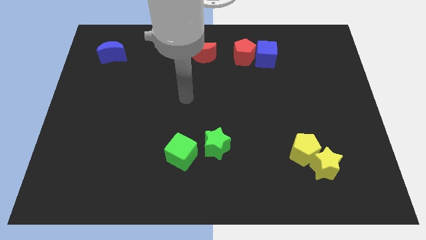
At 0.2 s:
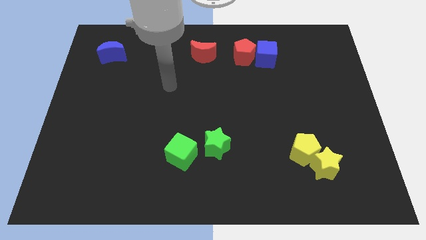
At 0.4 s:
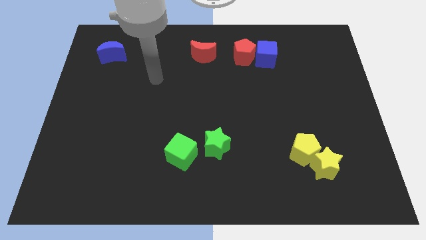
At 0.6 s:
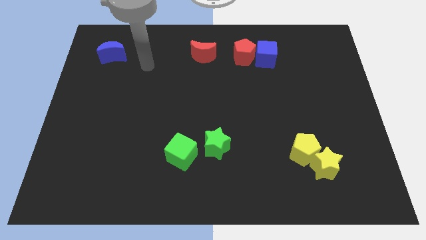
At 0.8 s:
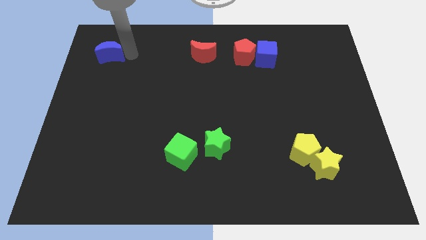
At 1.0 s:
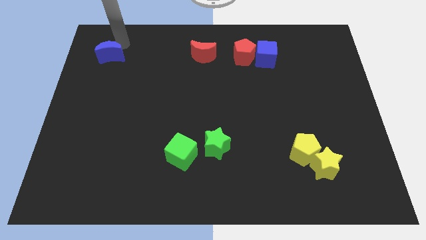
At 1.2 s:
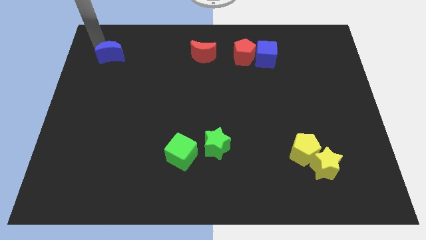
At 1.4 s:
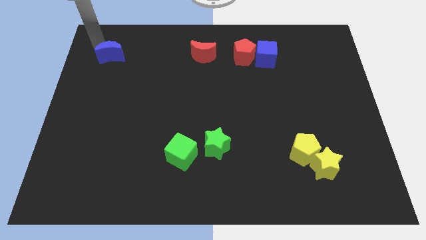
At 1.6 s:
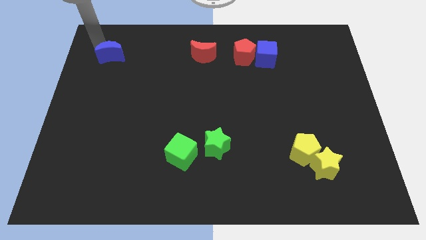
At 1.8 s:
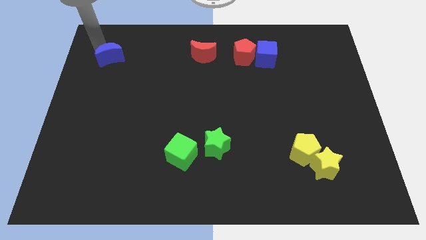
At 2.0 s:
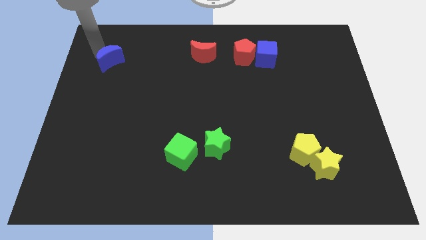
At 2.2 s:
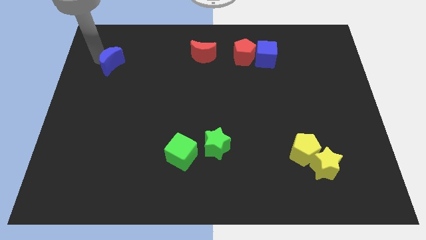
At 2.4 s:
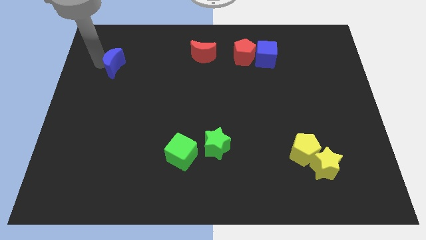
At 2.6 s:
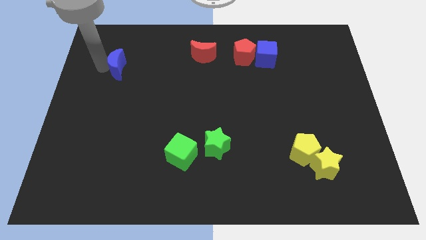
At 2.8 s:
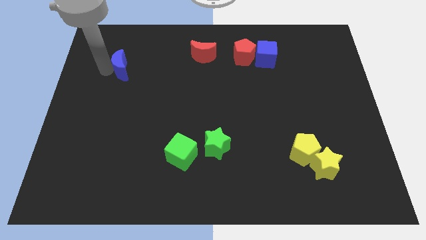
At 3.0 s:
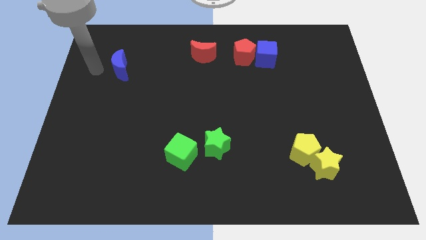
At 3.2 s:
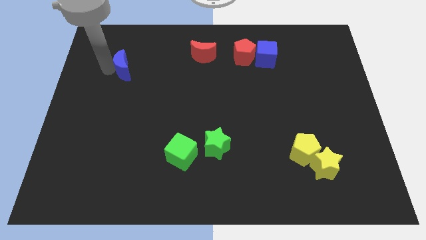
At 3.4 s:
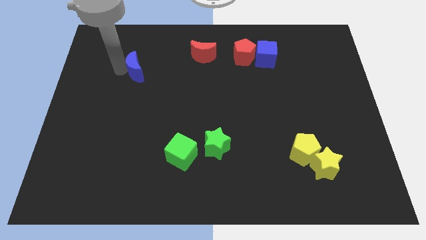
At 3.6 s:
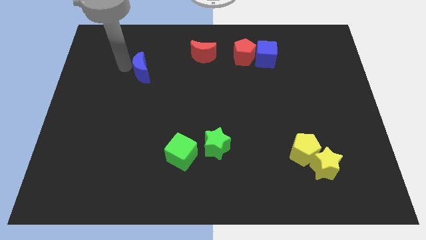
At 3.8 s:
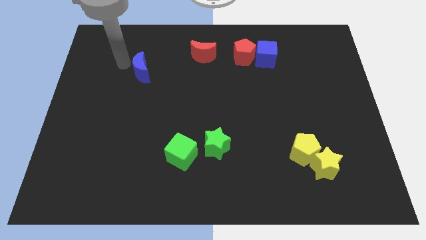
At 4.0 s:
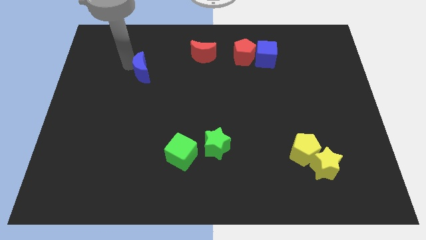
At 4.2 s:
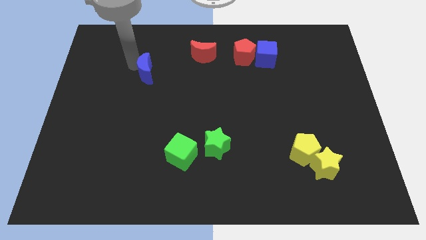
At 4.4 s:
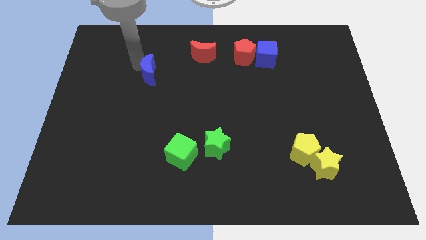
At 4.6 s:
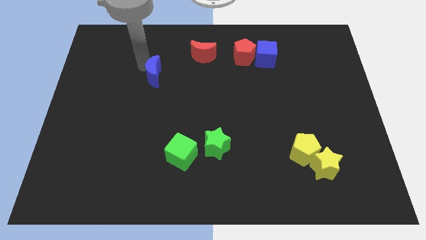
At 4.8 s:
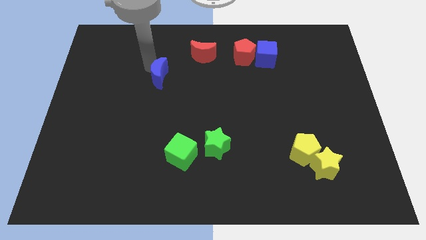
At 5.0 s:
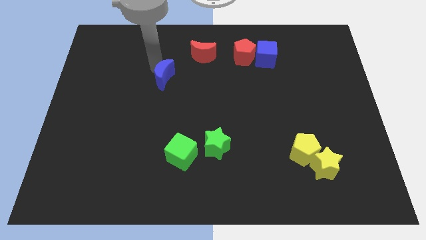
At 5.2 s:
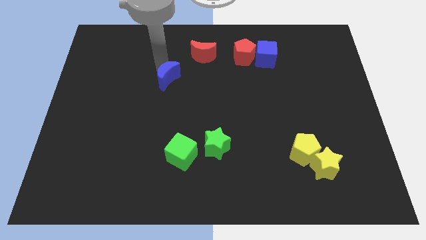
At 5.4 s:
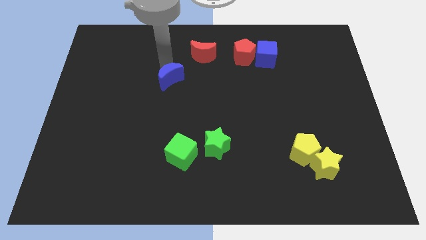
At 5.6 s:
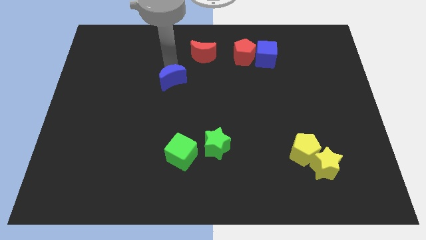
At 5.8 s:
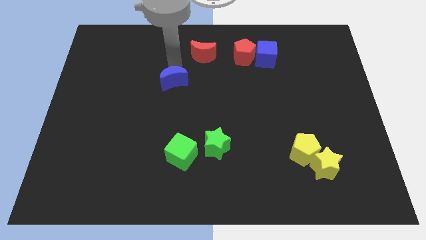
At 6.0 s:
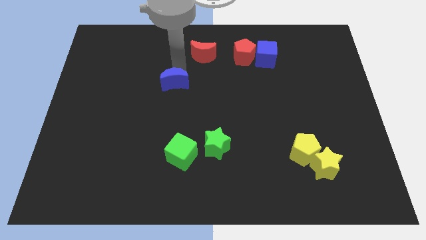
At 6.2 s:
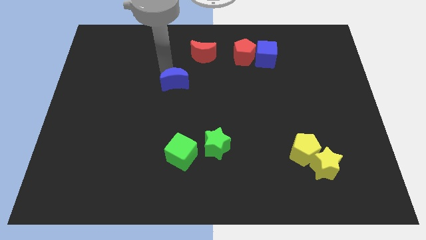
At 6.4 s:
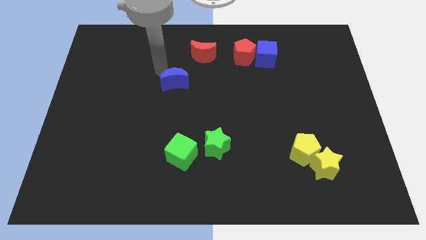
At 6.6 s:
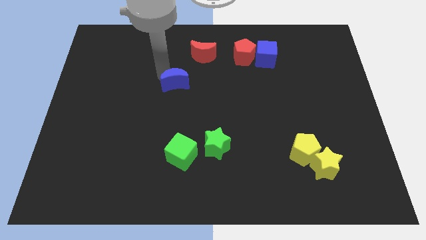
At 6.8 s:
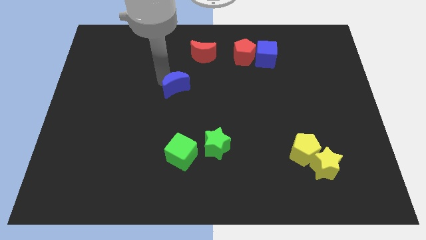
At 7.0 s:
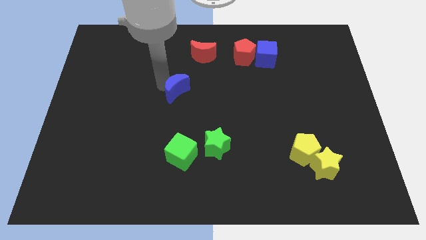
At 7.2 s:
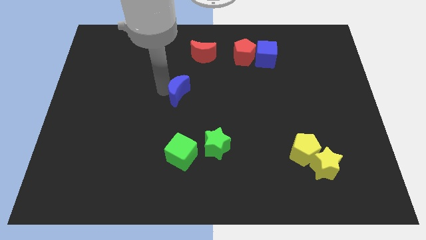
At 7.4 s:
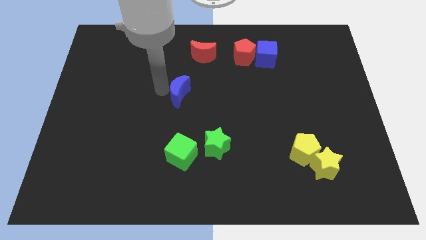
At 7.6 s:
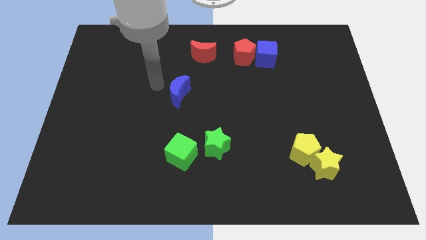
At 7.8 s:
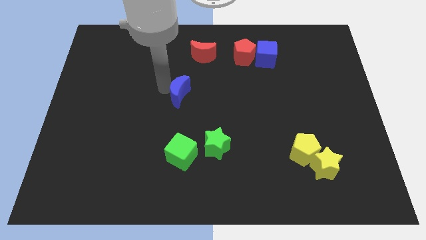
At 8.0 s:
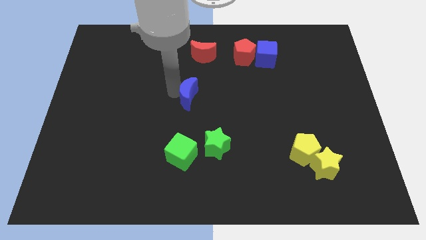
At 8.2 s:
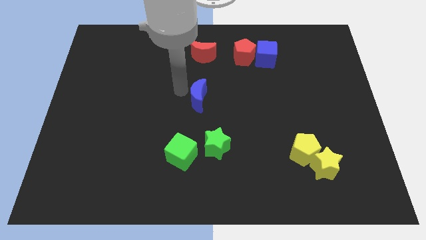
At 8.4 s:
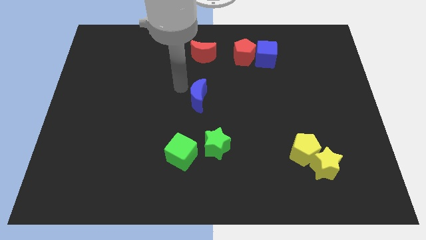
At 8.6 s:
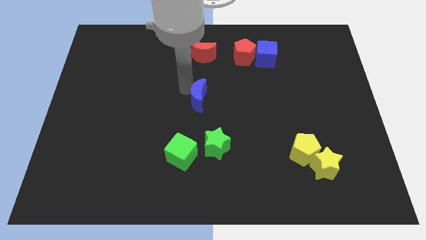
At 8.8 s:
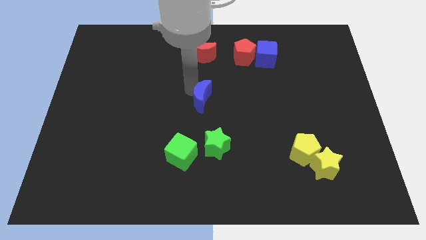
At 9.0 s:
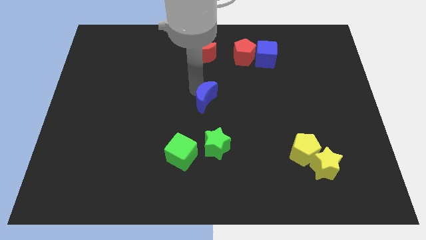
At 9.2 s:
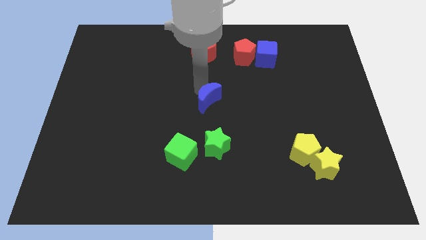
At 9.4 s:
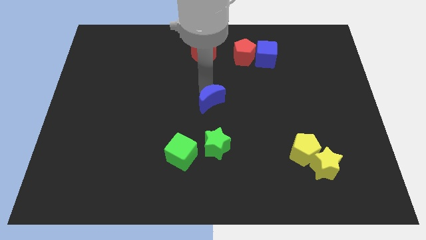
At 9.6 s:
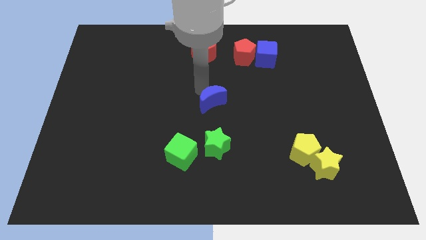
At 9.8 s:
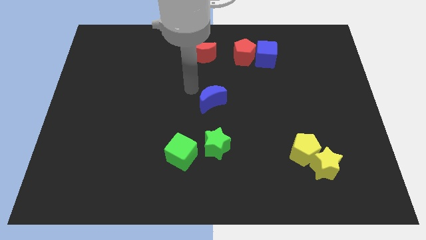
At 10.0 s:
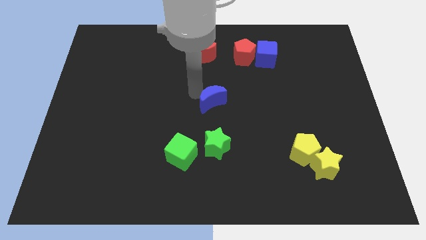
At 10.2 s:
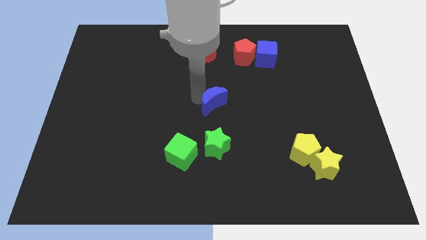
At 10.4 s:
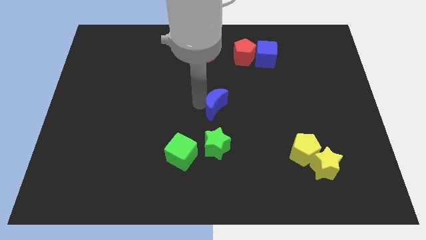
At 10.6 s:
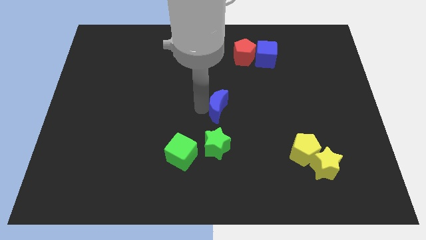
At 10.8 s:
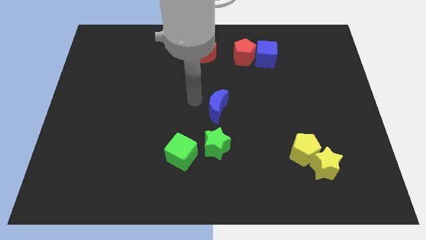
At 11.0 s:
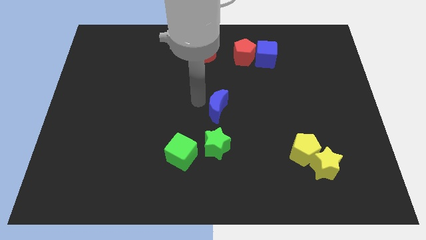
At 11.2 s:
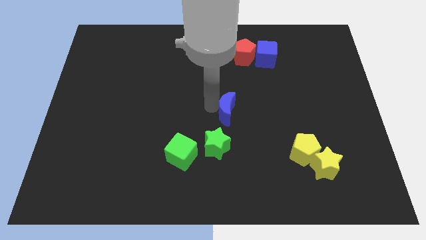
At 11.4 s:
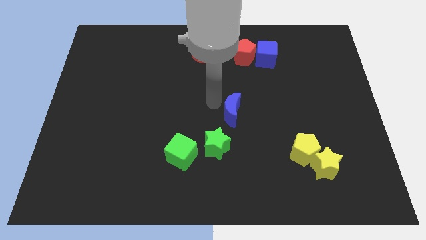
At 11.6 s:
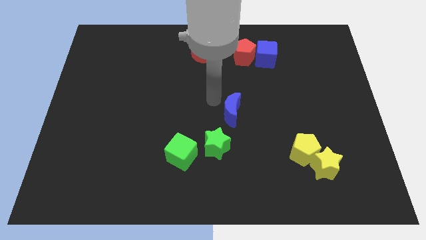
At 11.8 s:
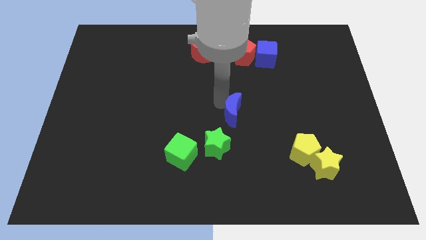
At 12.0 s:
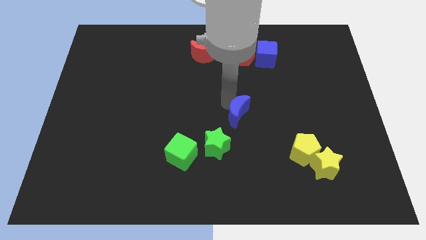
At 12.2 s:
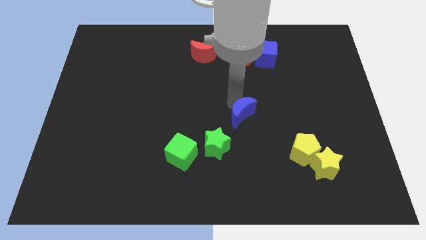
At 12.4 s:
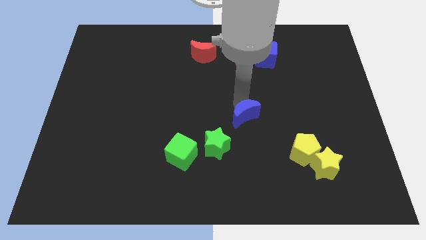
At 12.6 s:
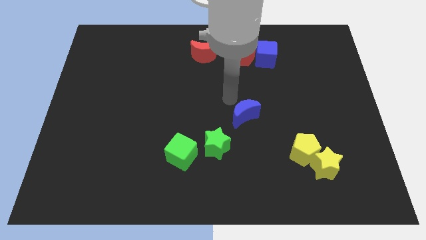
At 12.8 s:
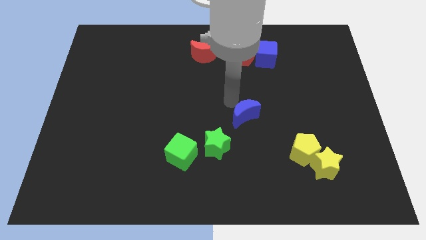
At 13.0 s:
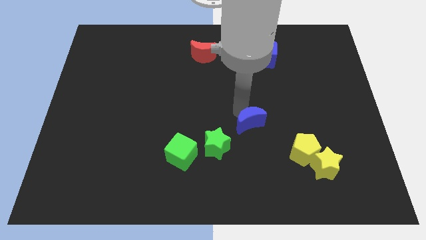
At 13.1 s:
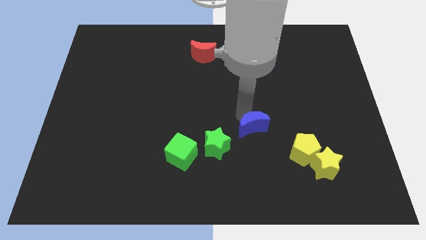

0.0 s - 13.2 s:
move the blue moon diagonally up and to the left of the yellow pentagon
